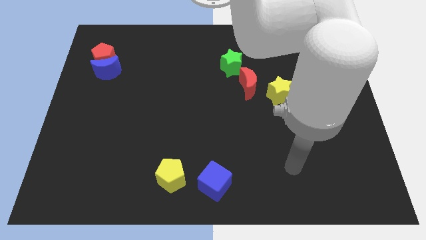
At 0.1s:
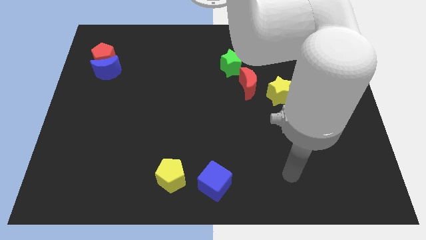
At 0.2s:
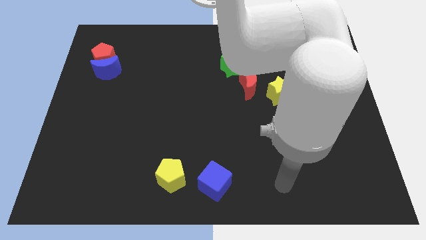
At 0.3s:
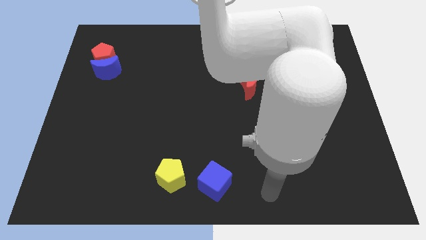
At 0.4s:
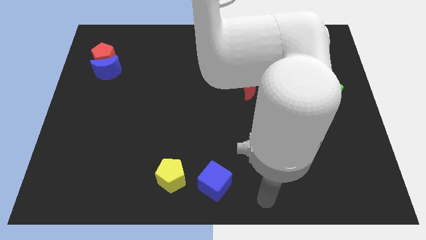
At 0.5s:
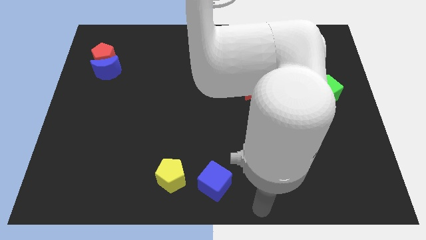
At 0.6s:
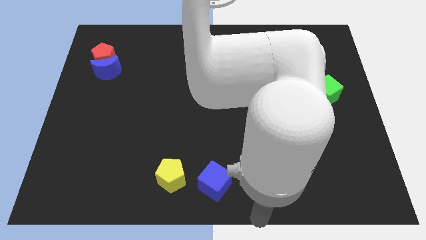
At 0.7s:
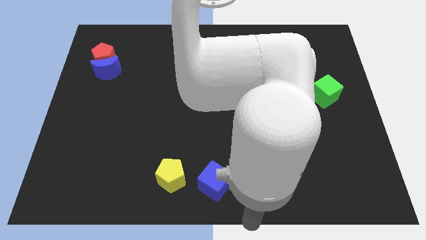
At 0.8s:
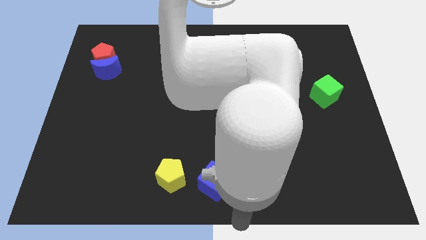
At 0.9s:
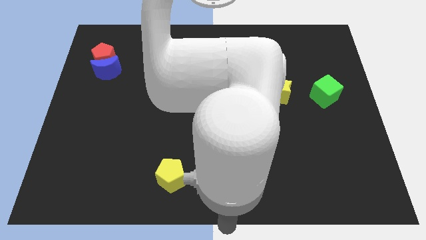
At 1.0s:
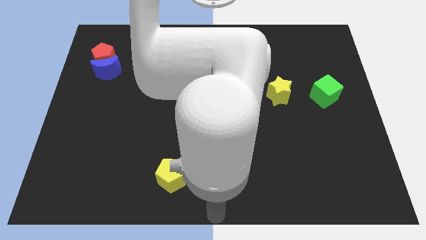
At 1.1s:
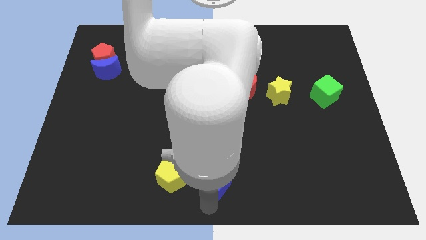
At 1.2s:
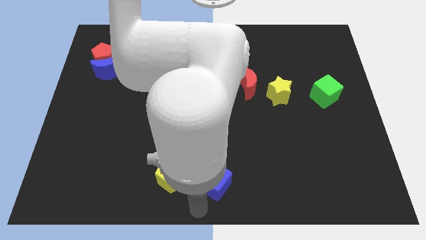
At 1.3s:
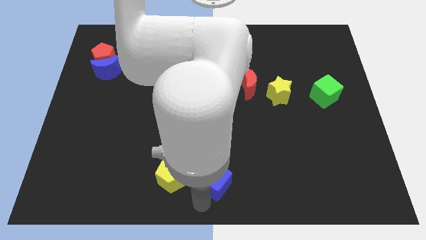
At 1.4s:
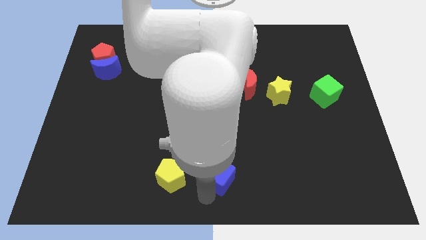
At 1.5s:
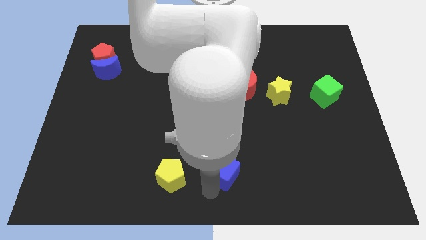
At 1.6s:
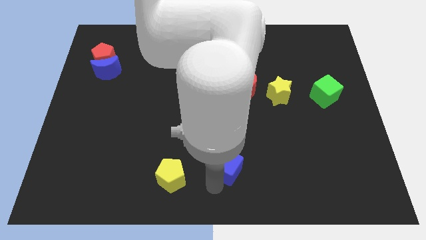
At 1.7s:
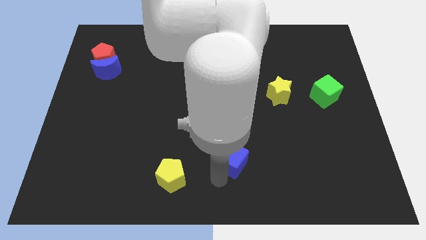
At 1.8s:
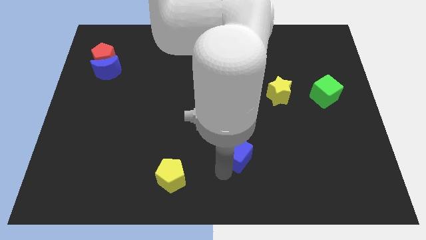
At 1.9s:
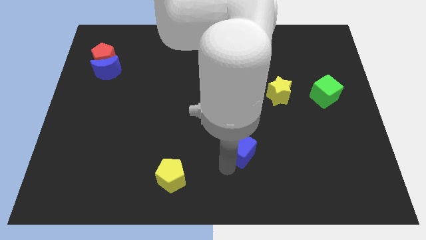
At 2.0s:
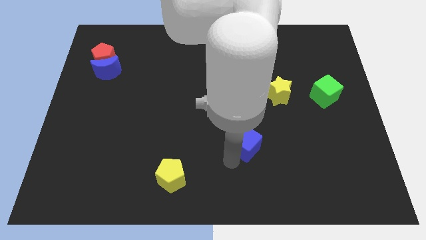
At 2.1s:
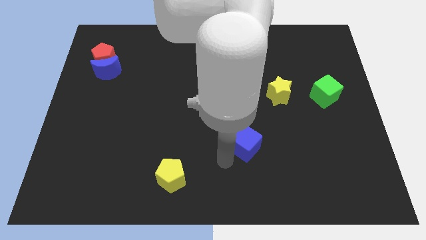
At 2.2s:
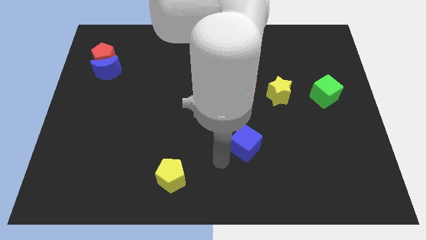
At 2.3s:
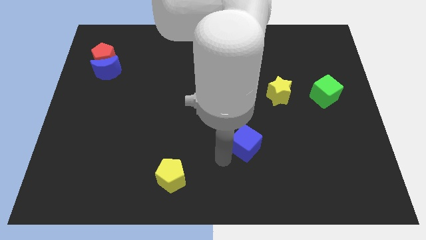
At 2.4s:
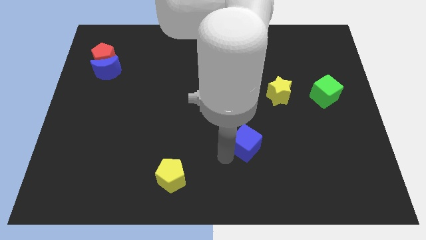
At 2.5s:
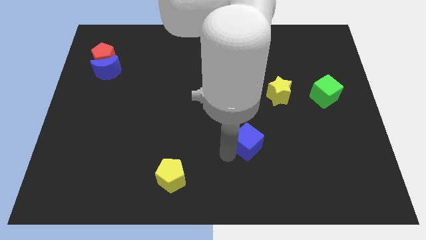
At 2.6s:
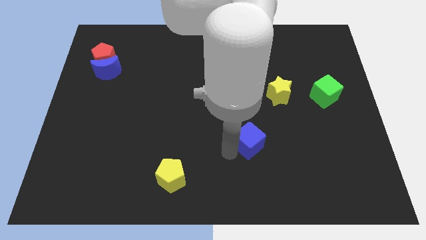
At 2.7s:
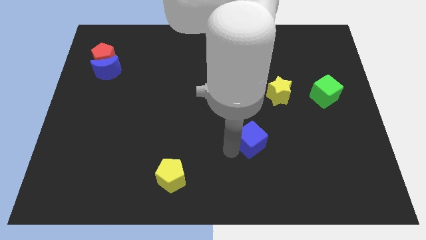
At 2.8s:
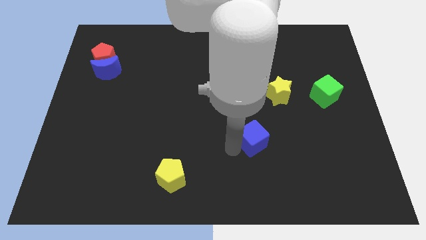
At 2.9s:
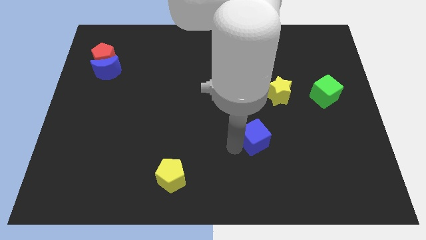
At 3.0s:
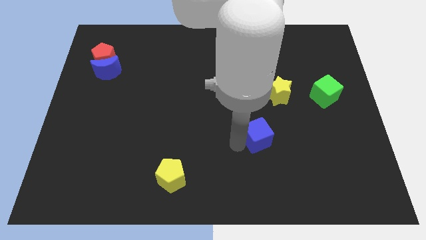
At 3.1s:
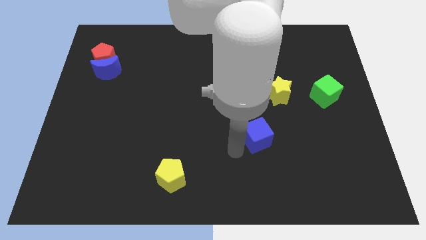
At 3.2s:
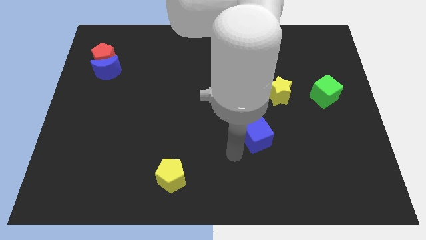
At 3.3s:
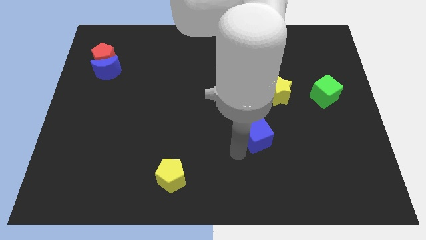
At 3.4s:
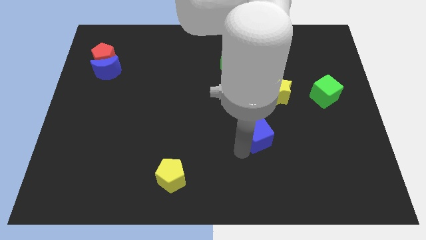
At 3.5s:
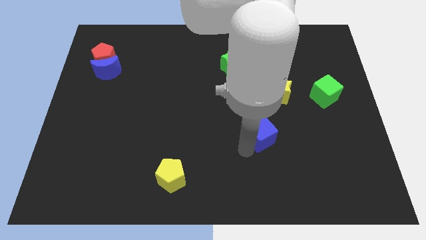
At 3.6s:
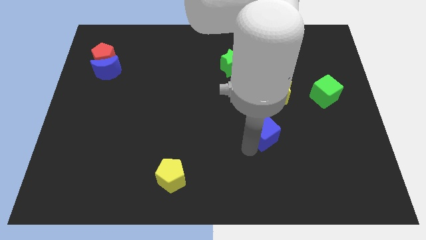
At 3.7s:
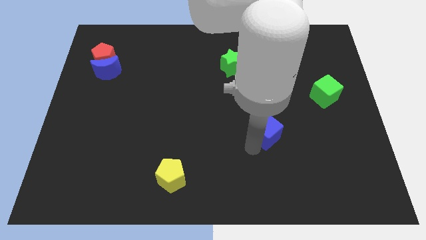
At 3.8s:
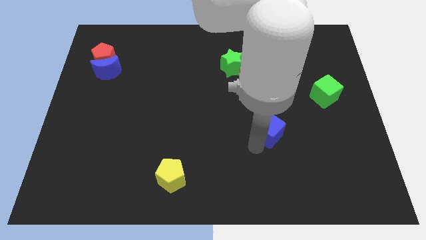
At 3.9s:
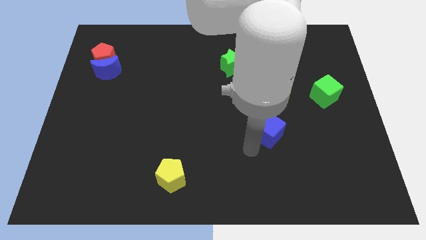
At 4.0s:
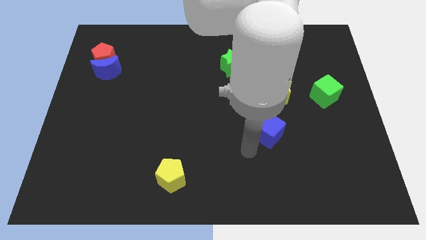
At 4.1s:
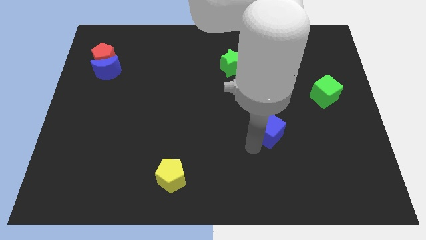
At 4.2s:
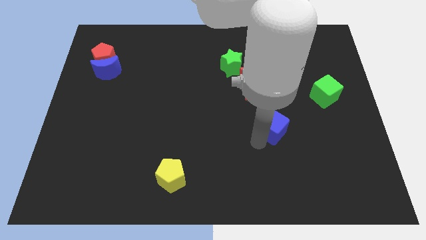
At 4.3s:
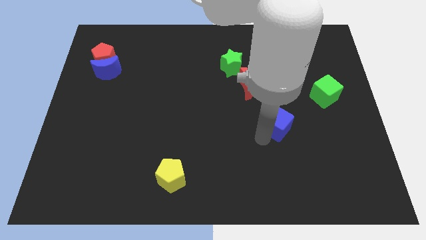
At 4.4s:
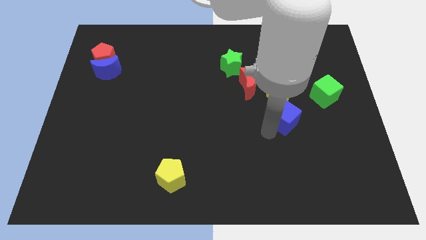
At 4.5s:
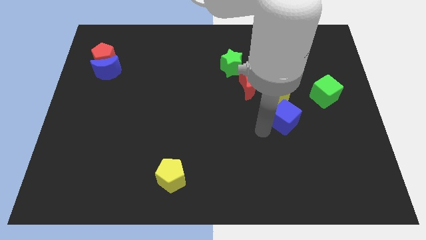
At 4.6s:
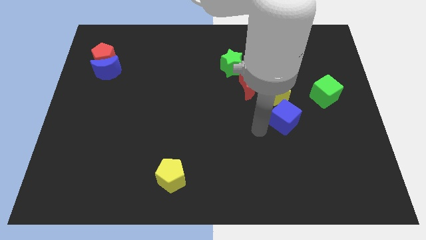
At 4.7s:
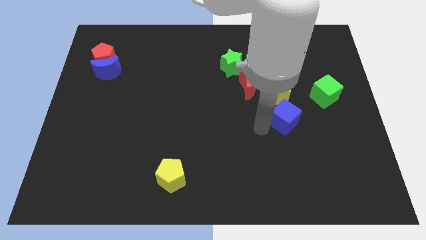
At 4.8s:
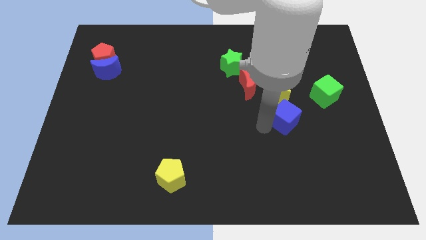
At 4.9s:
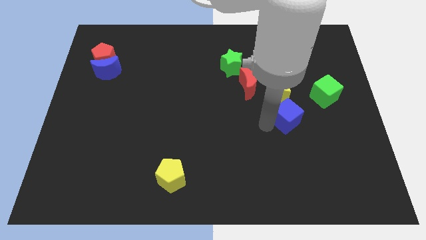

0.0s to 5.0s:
put the blue cube to the bottom left side of the green cube

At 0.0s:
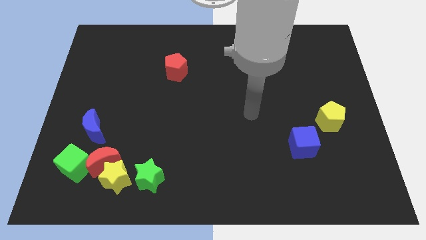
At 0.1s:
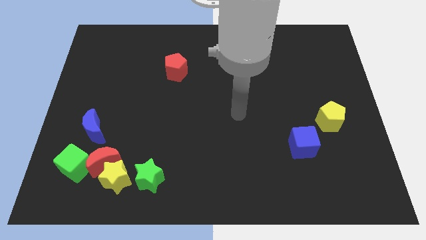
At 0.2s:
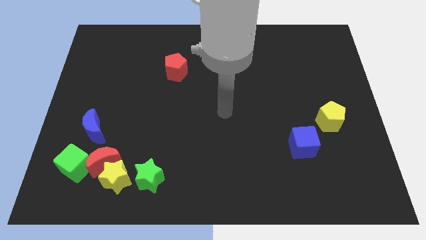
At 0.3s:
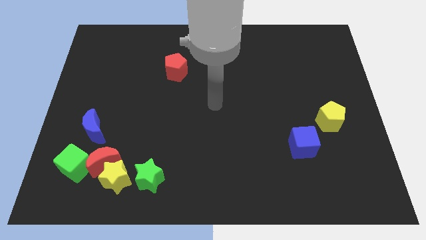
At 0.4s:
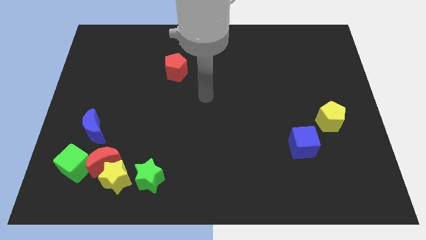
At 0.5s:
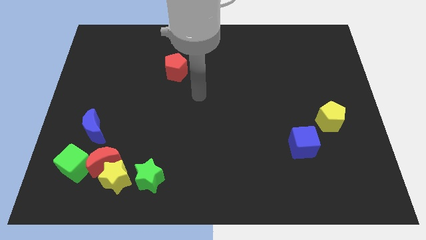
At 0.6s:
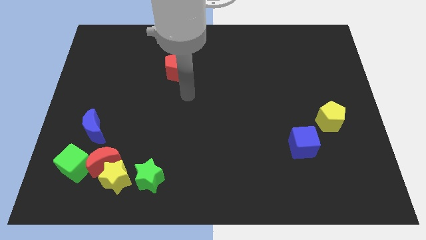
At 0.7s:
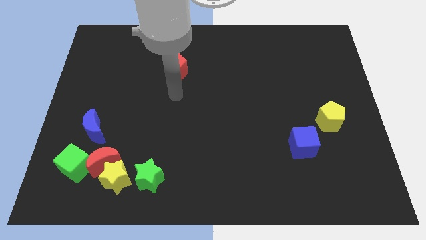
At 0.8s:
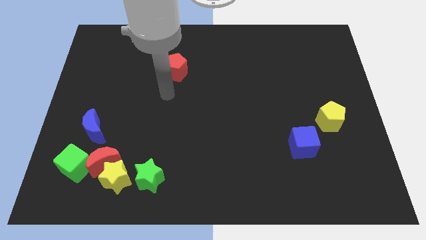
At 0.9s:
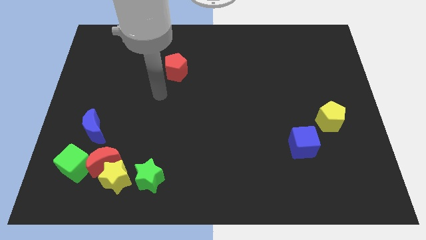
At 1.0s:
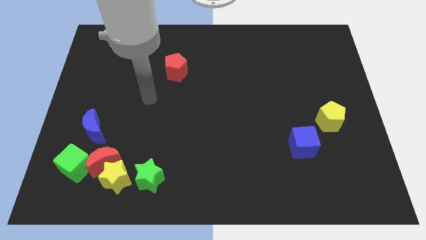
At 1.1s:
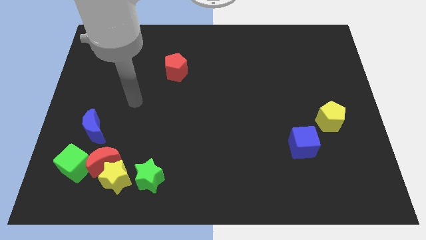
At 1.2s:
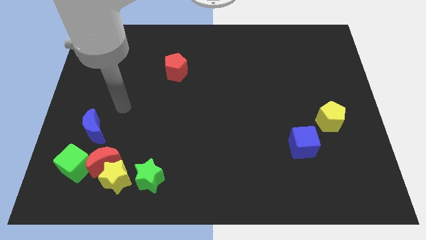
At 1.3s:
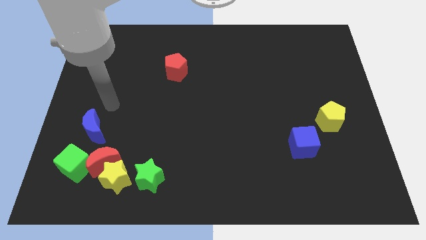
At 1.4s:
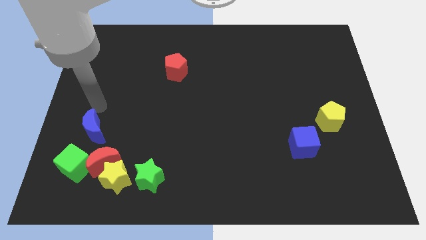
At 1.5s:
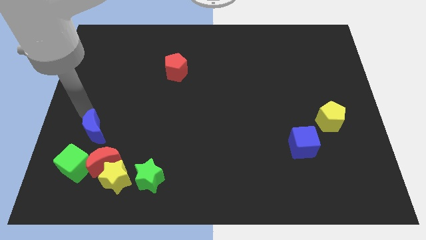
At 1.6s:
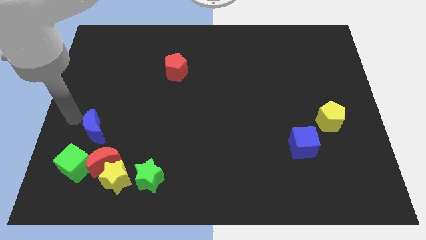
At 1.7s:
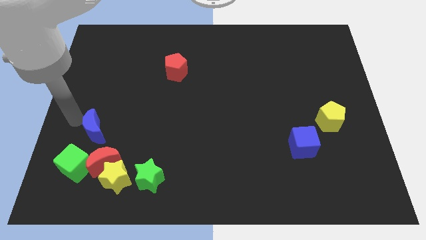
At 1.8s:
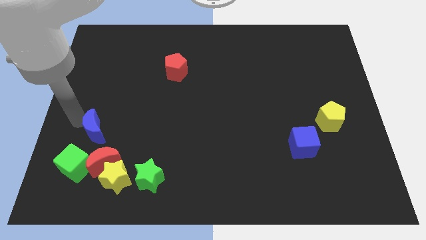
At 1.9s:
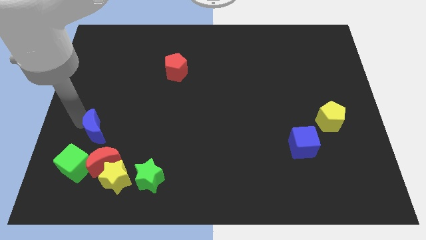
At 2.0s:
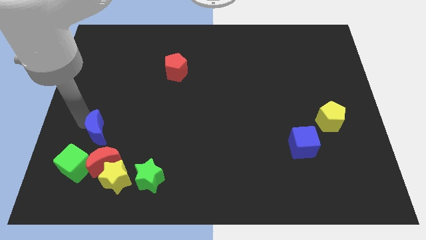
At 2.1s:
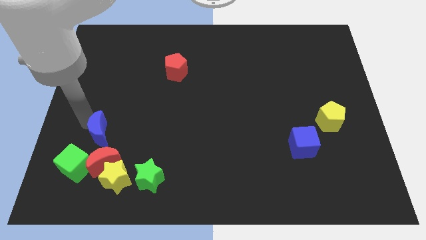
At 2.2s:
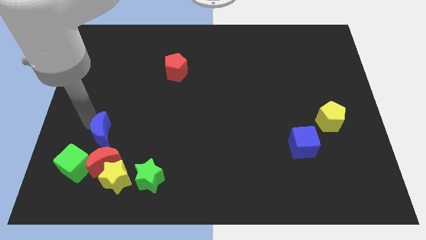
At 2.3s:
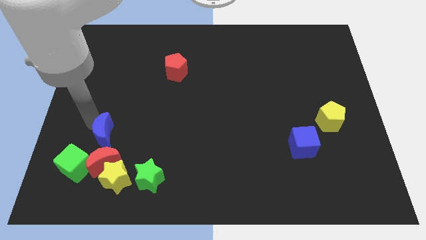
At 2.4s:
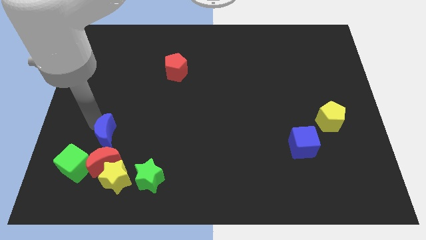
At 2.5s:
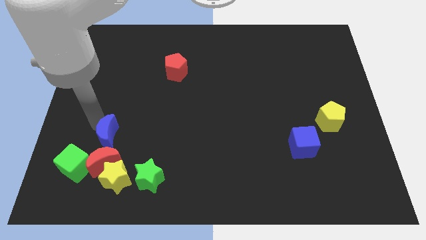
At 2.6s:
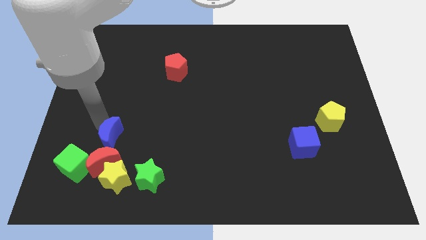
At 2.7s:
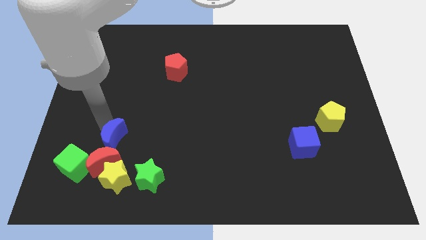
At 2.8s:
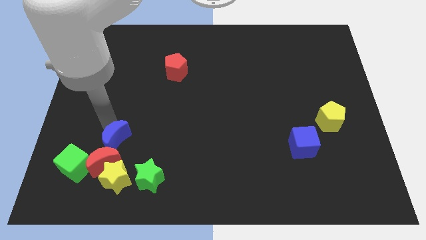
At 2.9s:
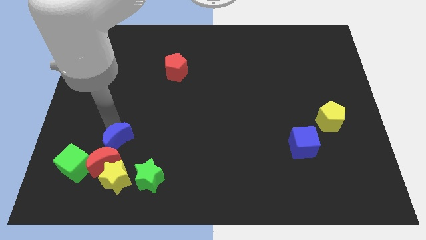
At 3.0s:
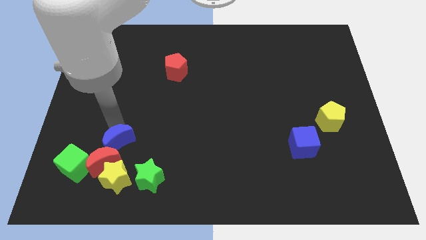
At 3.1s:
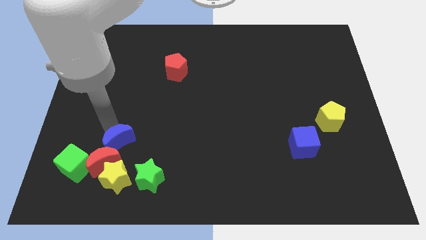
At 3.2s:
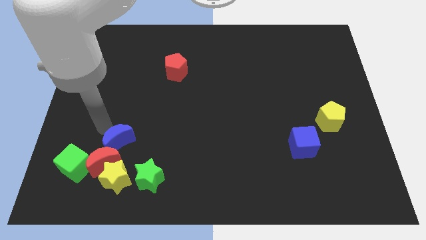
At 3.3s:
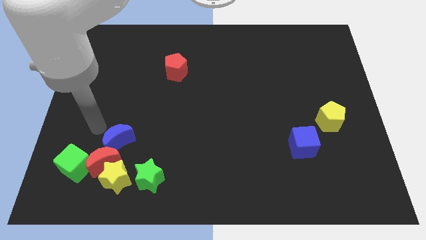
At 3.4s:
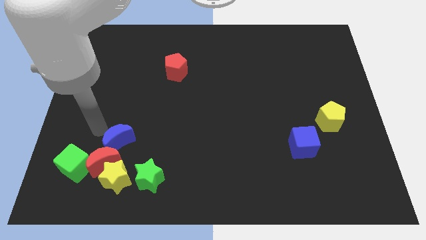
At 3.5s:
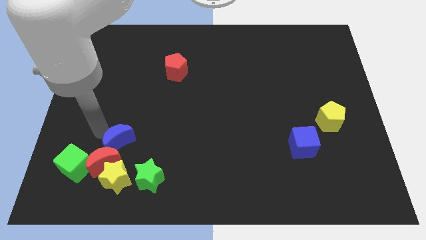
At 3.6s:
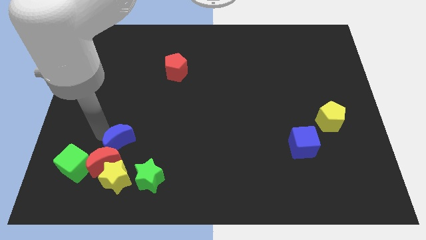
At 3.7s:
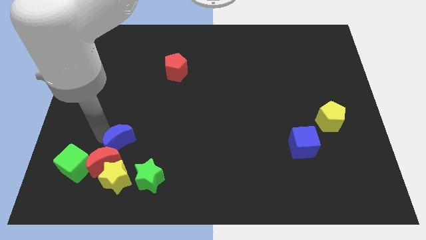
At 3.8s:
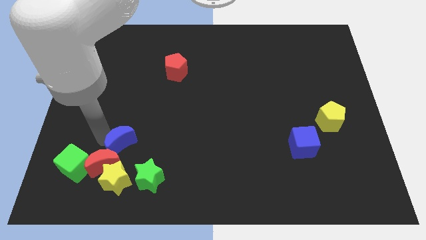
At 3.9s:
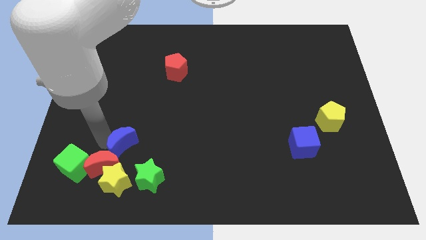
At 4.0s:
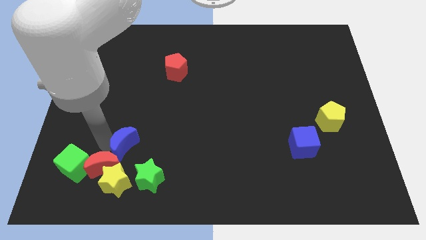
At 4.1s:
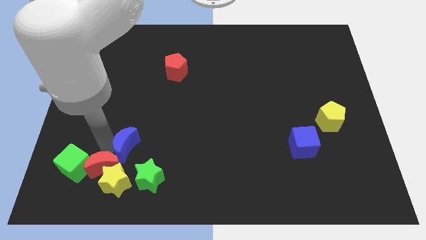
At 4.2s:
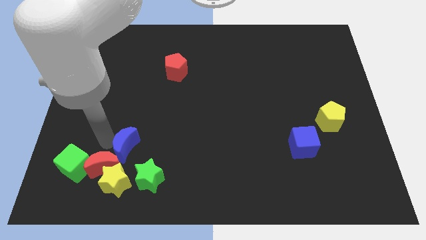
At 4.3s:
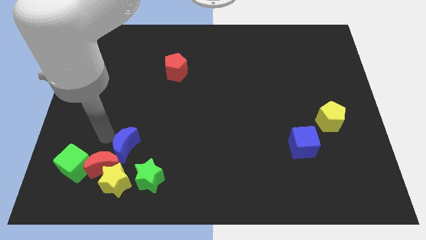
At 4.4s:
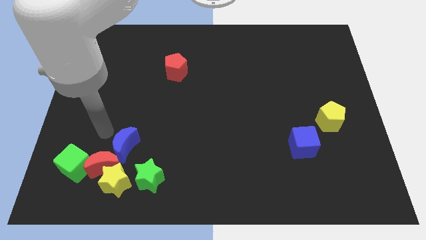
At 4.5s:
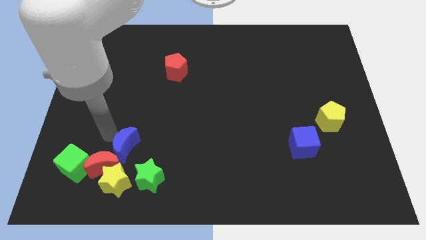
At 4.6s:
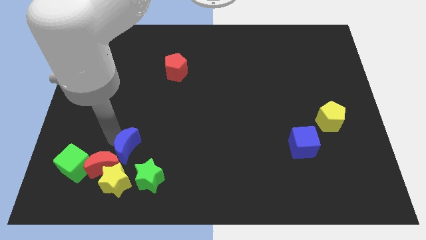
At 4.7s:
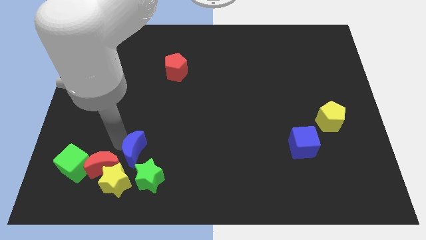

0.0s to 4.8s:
push the blue moon diagonally up and to the right of the yellow star
